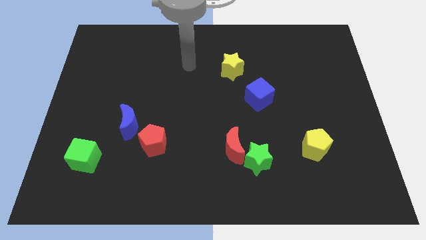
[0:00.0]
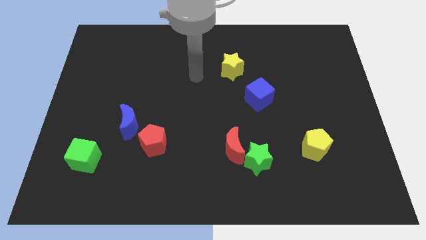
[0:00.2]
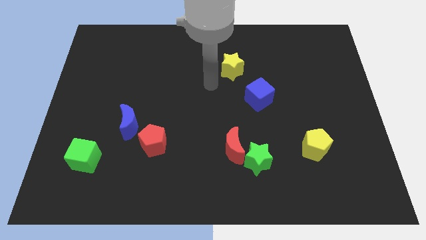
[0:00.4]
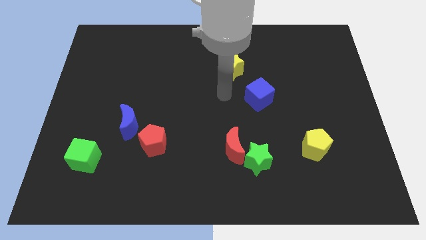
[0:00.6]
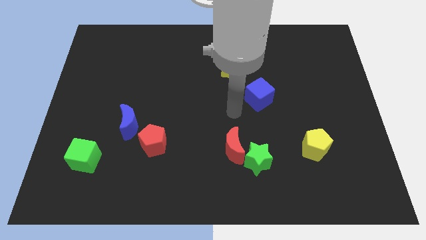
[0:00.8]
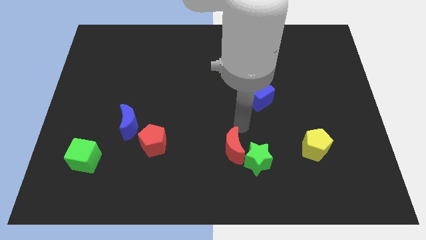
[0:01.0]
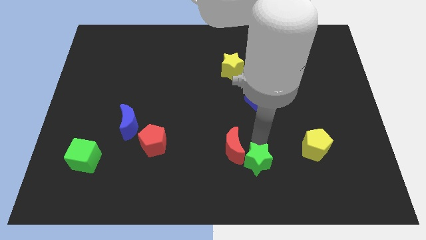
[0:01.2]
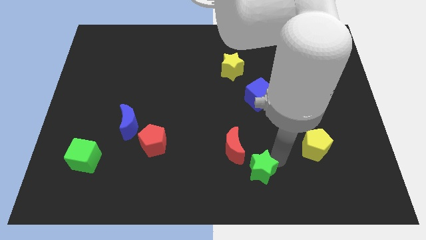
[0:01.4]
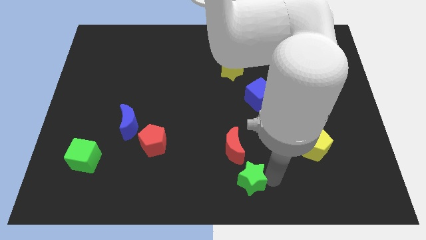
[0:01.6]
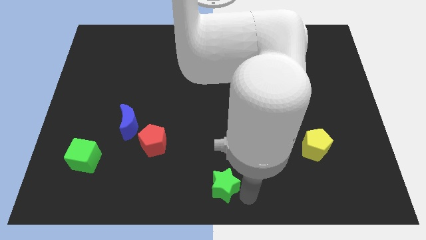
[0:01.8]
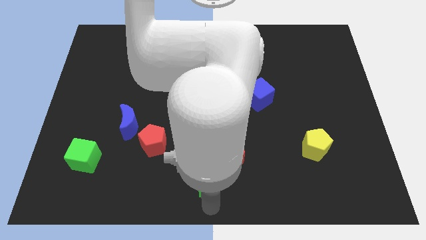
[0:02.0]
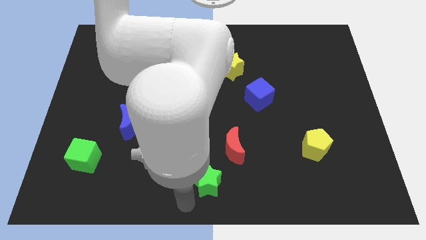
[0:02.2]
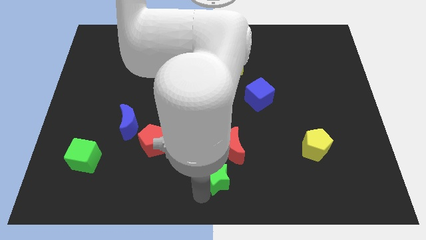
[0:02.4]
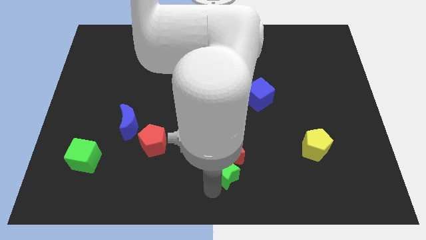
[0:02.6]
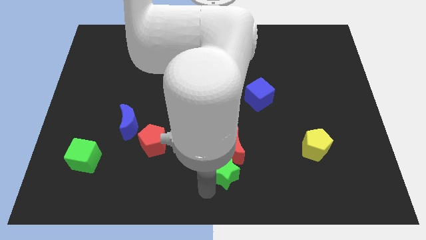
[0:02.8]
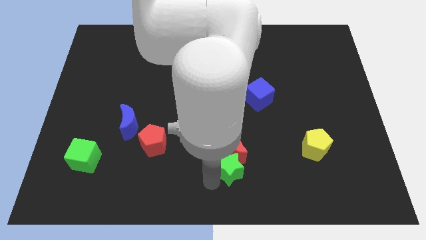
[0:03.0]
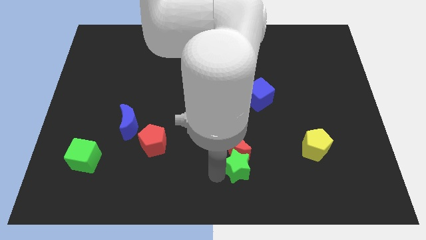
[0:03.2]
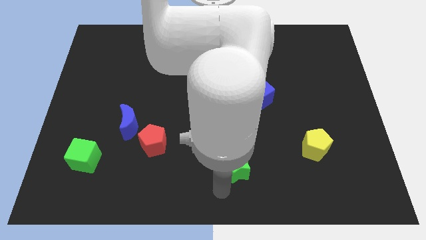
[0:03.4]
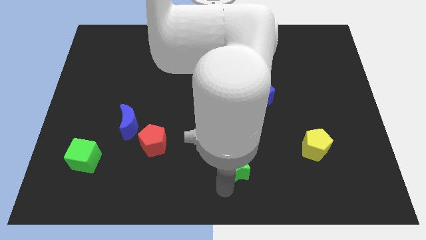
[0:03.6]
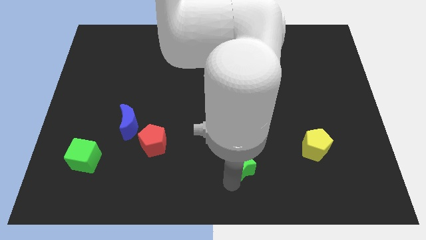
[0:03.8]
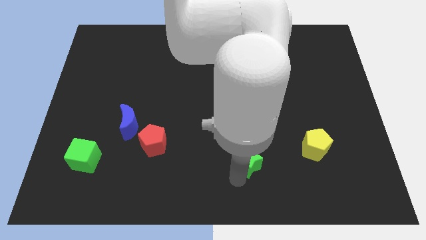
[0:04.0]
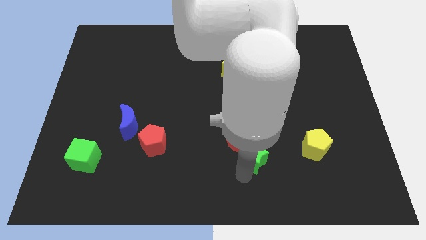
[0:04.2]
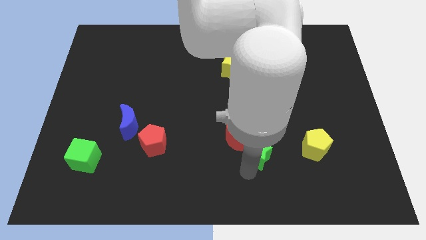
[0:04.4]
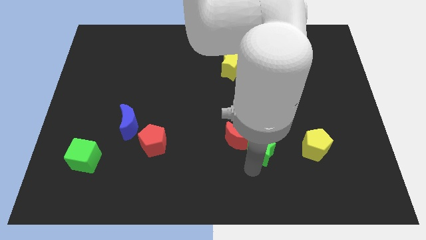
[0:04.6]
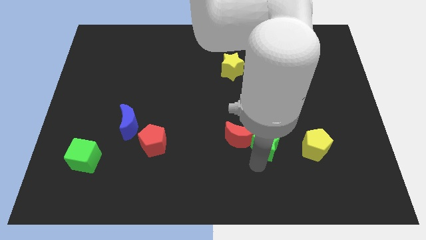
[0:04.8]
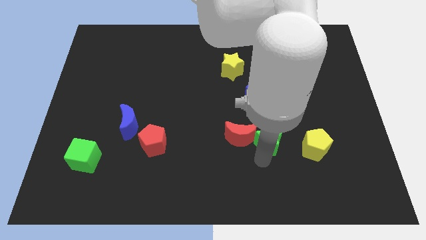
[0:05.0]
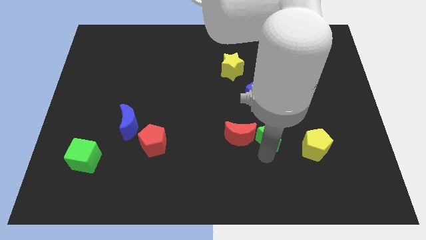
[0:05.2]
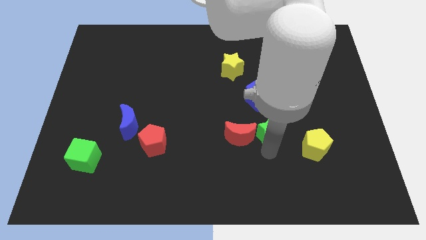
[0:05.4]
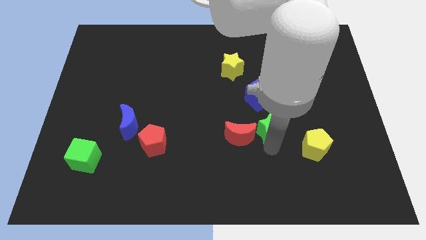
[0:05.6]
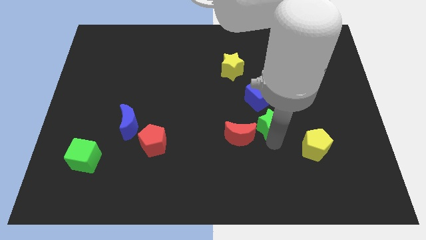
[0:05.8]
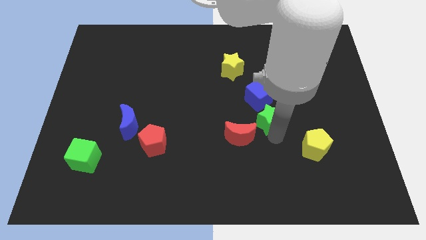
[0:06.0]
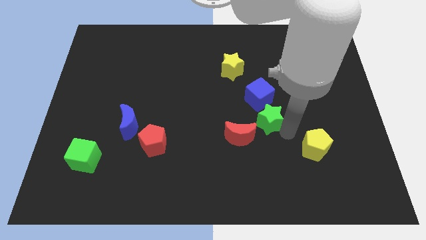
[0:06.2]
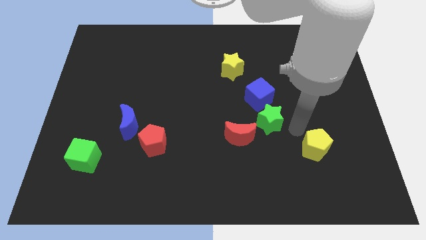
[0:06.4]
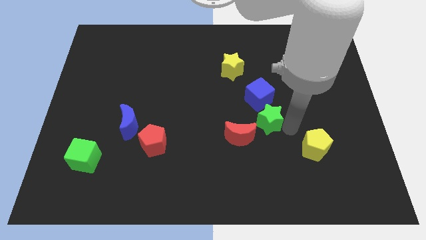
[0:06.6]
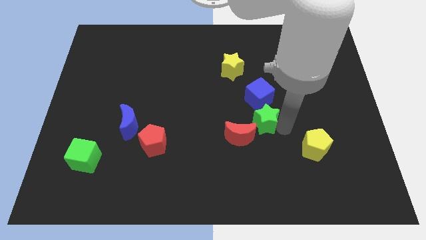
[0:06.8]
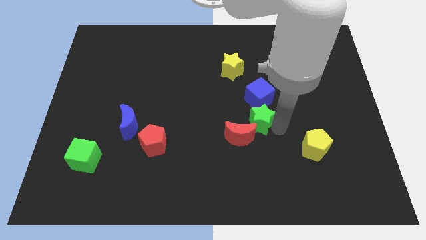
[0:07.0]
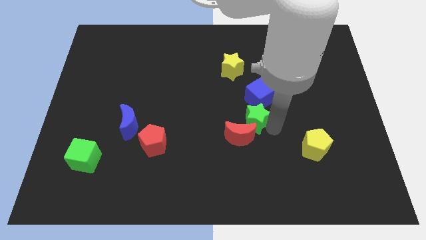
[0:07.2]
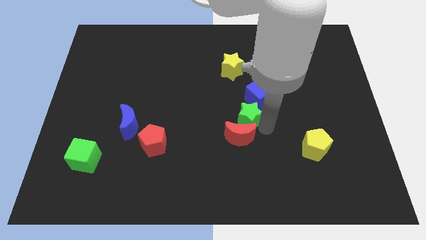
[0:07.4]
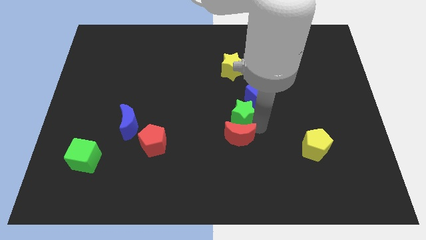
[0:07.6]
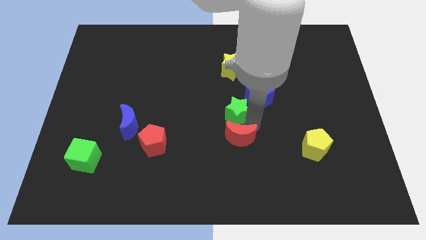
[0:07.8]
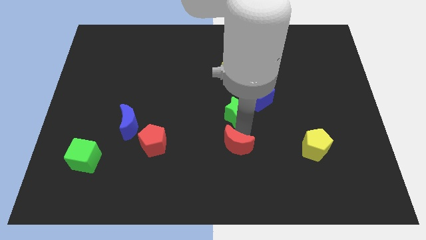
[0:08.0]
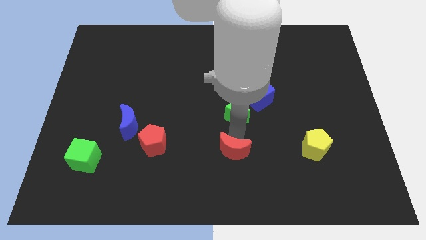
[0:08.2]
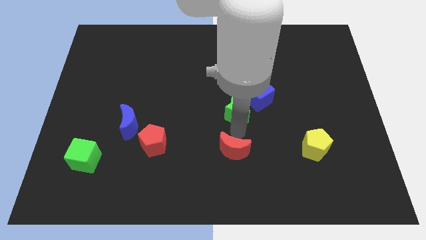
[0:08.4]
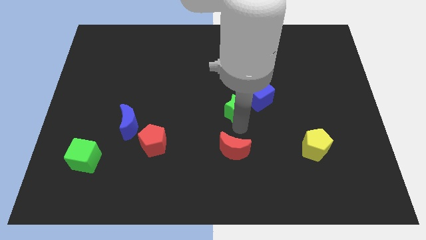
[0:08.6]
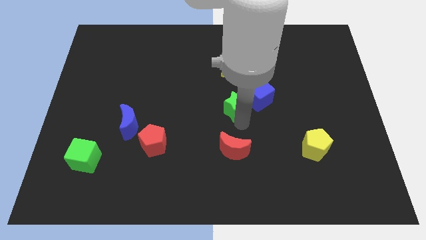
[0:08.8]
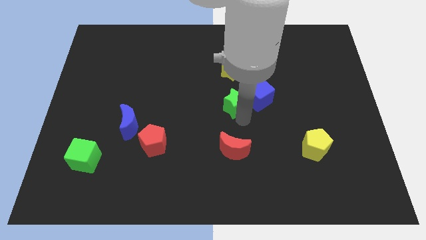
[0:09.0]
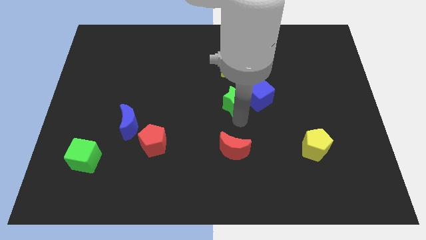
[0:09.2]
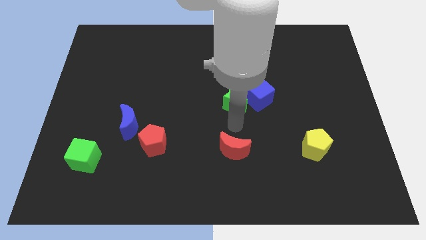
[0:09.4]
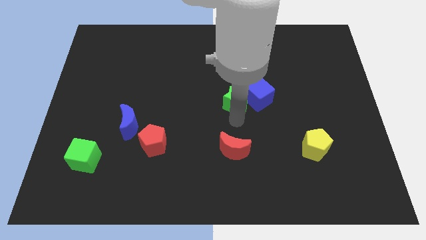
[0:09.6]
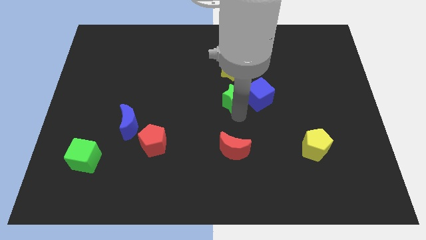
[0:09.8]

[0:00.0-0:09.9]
move the green star to the top left side of the blue cube

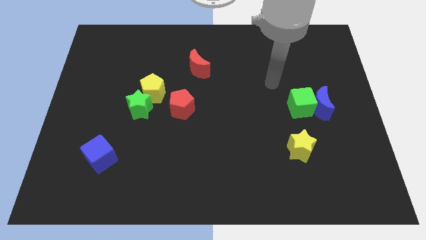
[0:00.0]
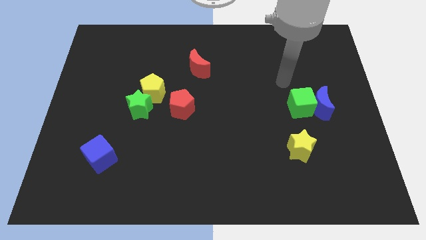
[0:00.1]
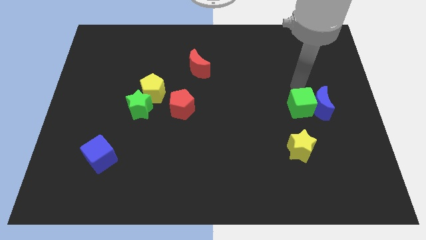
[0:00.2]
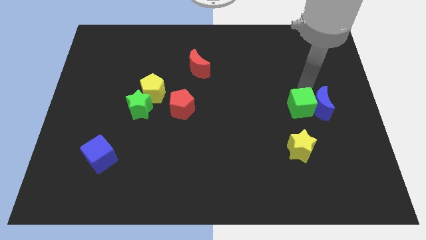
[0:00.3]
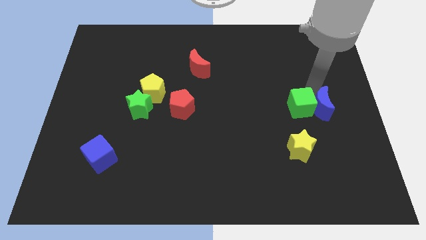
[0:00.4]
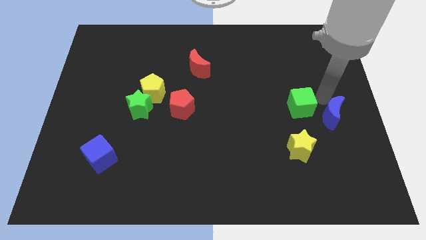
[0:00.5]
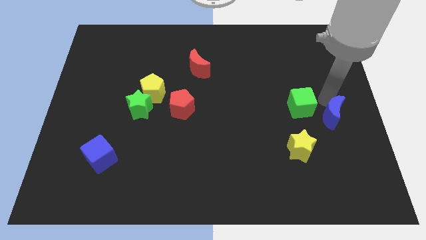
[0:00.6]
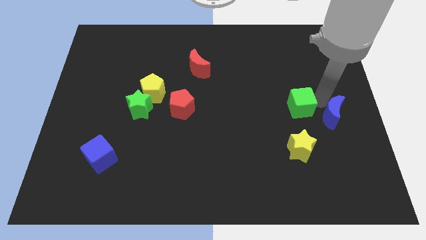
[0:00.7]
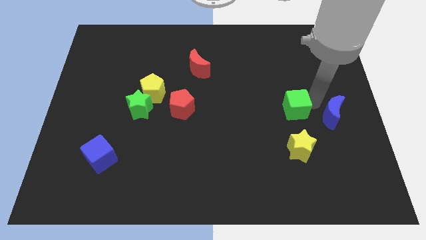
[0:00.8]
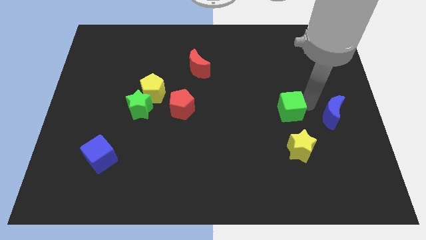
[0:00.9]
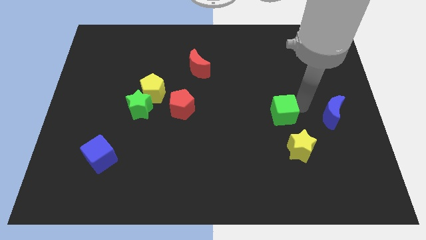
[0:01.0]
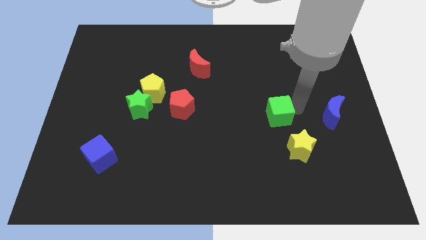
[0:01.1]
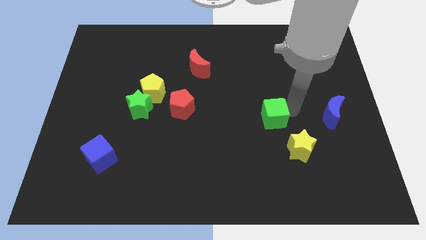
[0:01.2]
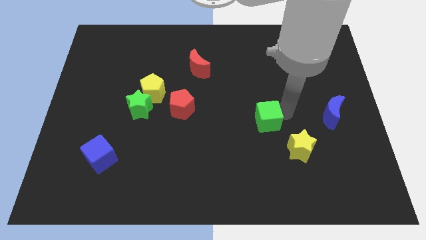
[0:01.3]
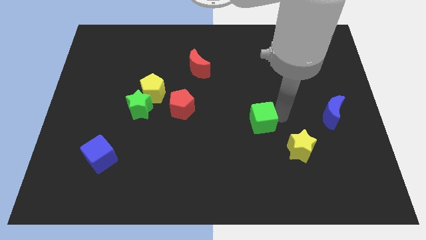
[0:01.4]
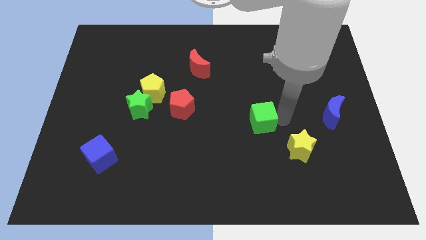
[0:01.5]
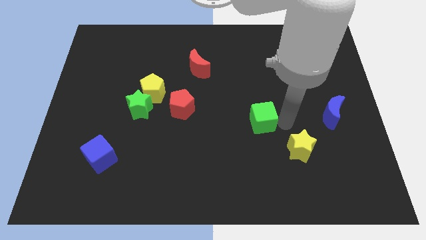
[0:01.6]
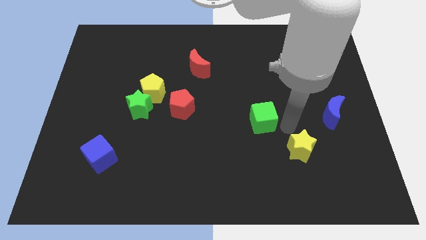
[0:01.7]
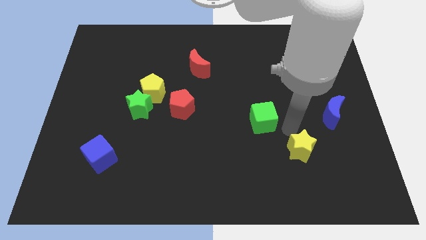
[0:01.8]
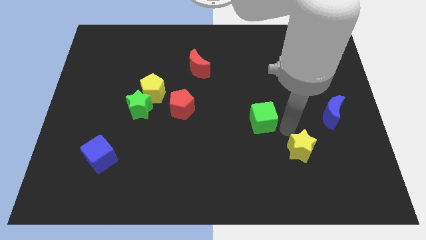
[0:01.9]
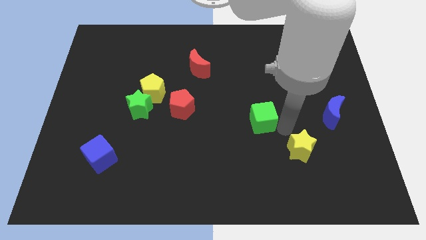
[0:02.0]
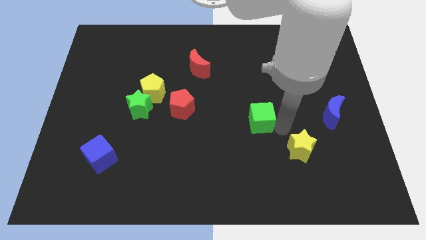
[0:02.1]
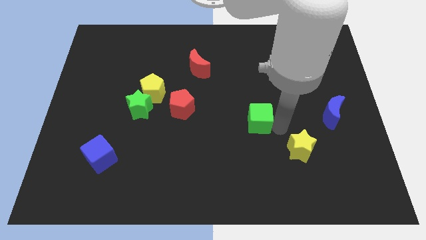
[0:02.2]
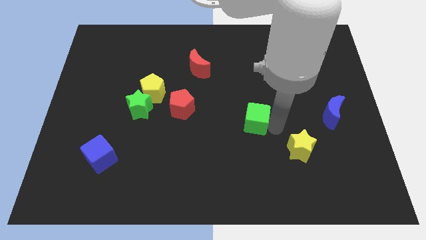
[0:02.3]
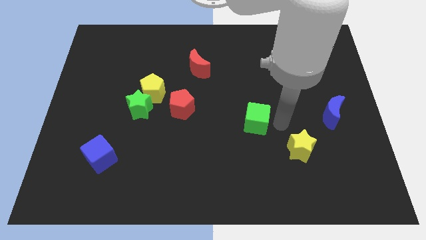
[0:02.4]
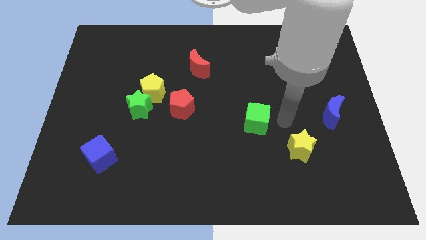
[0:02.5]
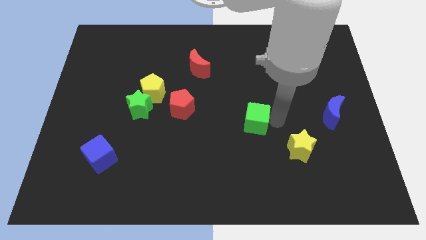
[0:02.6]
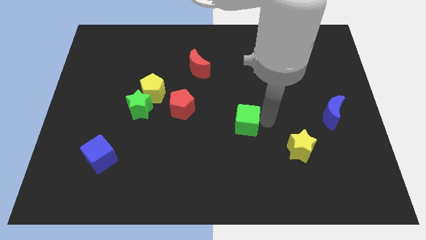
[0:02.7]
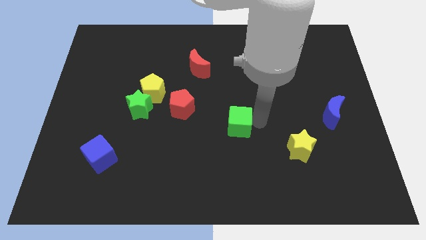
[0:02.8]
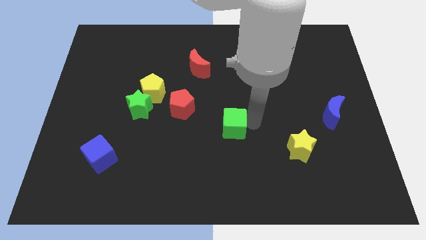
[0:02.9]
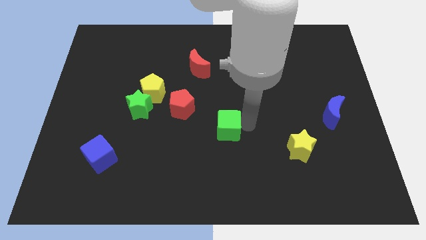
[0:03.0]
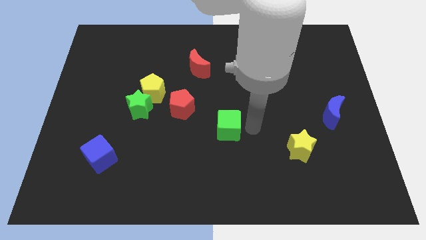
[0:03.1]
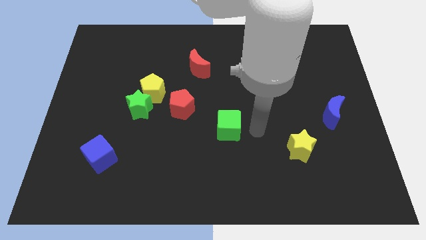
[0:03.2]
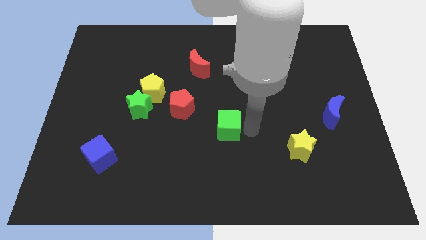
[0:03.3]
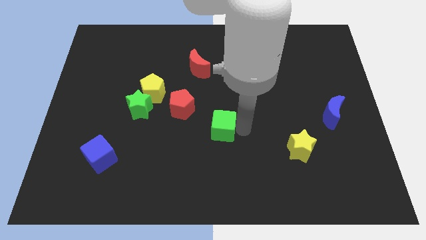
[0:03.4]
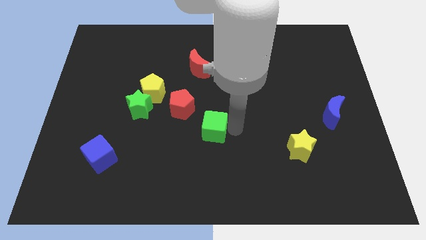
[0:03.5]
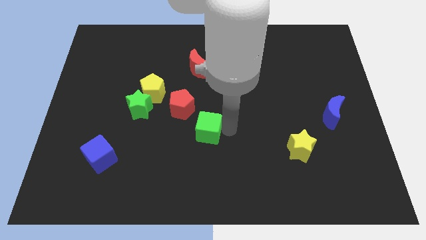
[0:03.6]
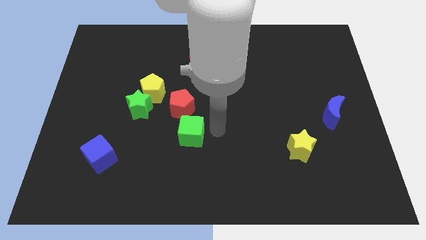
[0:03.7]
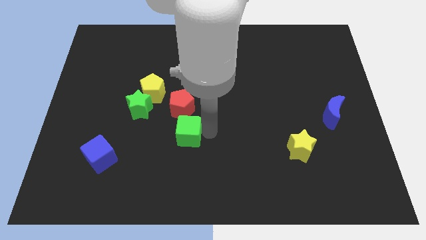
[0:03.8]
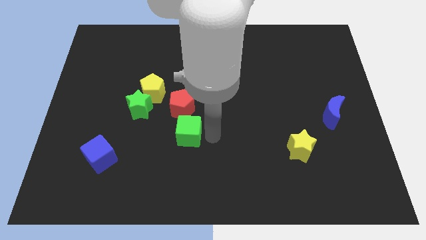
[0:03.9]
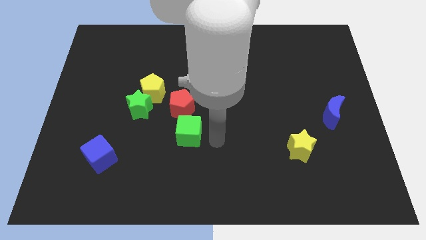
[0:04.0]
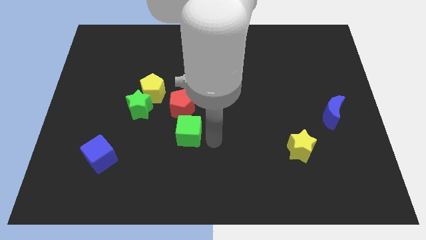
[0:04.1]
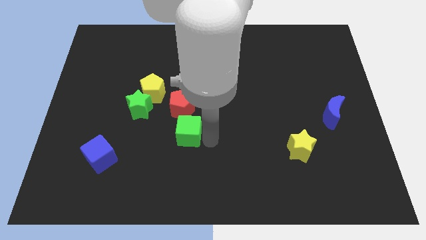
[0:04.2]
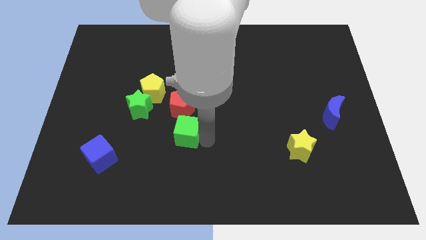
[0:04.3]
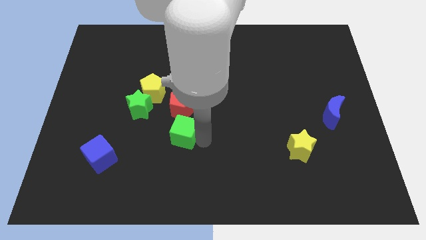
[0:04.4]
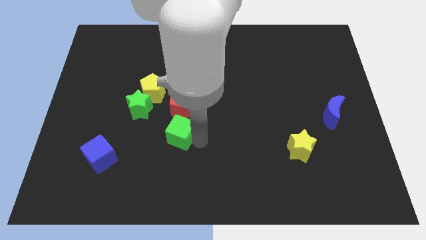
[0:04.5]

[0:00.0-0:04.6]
put the green cube to the bottom right side of the green star
